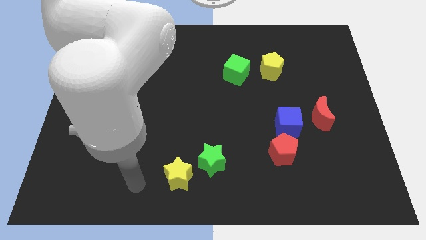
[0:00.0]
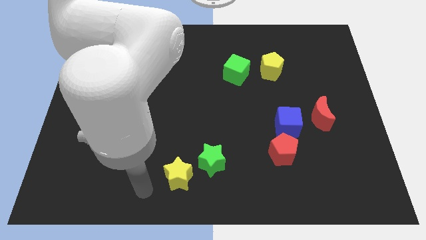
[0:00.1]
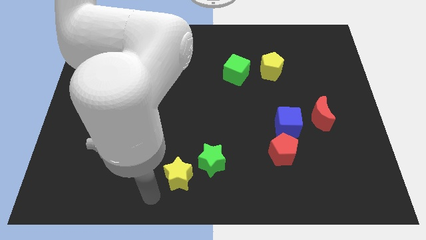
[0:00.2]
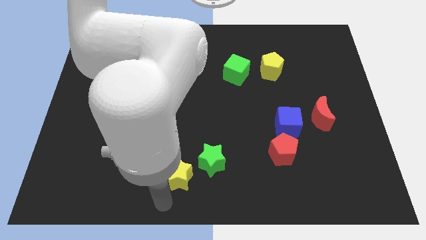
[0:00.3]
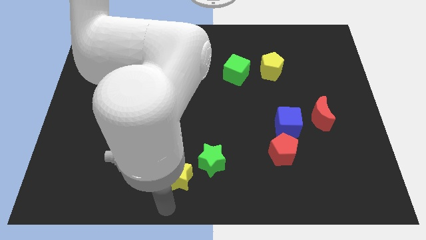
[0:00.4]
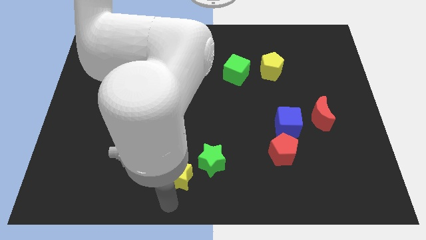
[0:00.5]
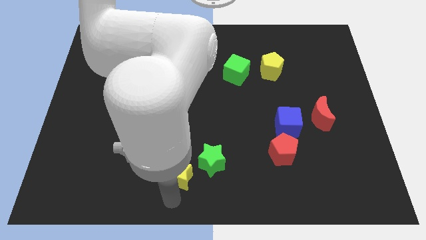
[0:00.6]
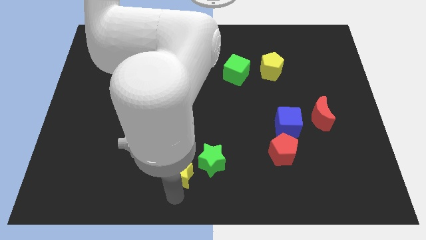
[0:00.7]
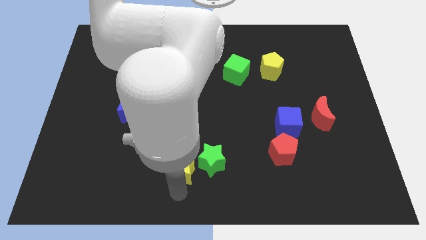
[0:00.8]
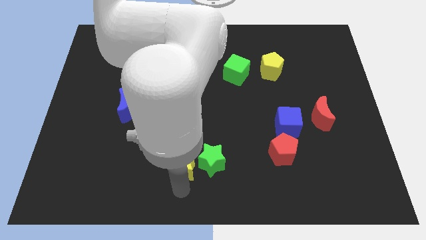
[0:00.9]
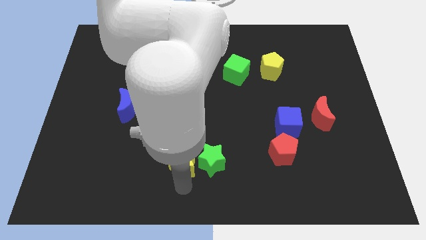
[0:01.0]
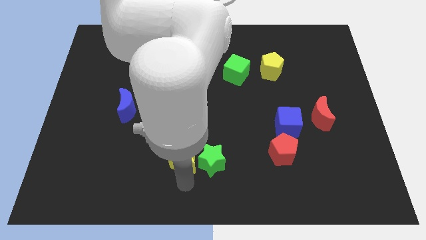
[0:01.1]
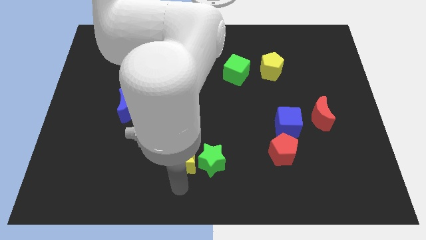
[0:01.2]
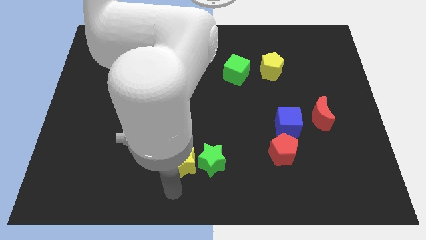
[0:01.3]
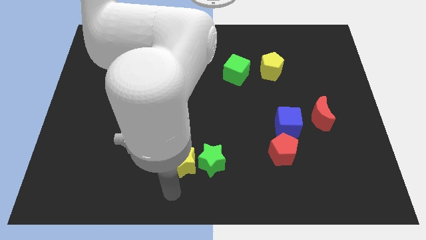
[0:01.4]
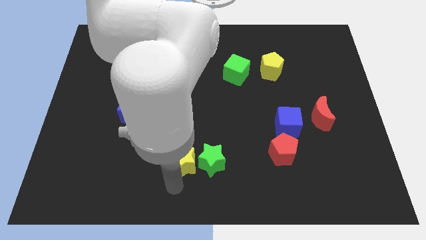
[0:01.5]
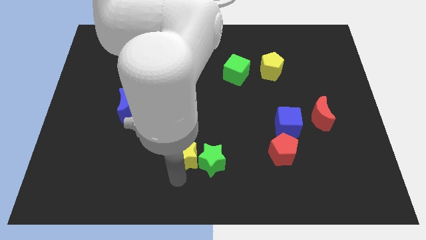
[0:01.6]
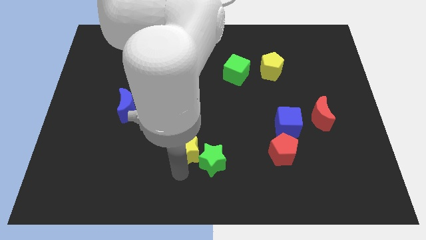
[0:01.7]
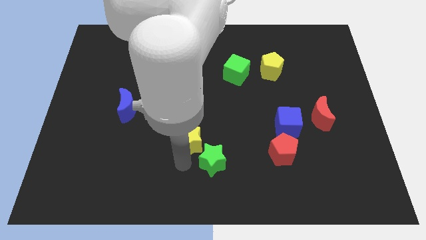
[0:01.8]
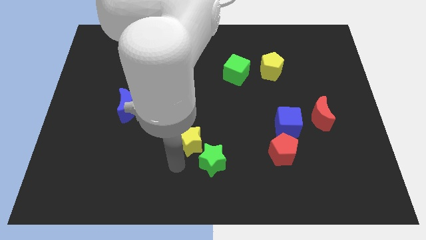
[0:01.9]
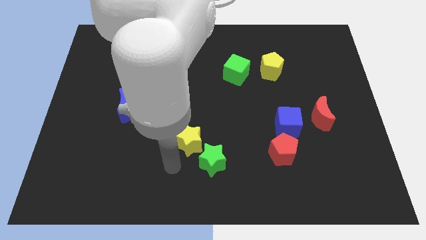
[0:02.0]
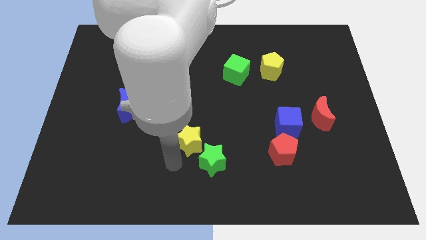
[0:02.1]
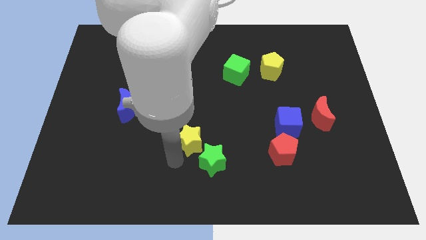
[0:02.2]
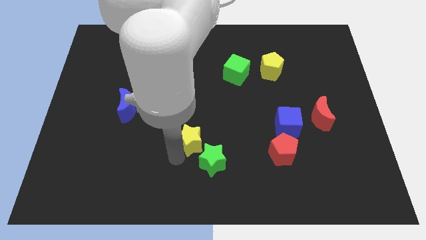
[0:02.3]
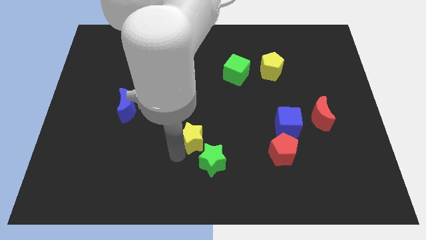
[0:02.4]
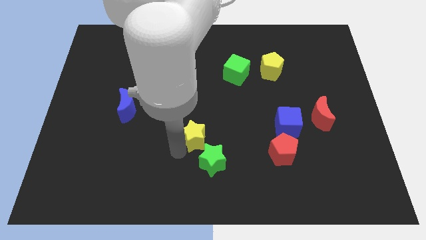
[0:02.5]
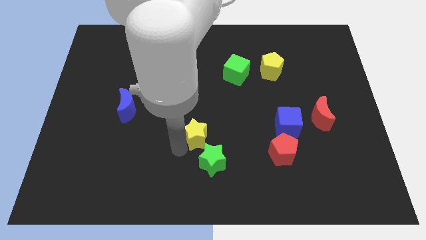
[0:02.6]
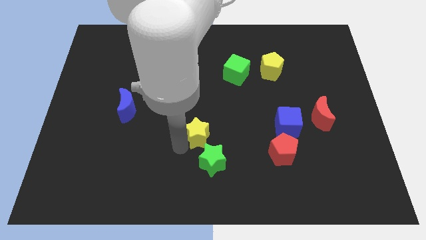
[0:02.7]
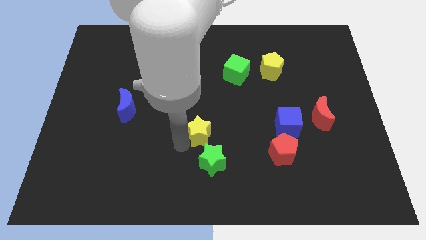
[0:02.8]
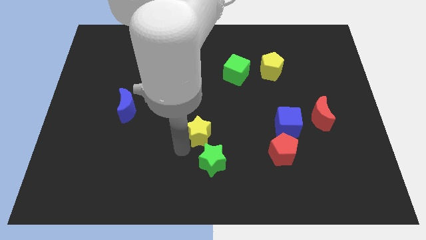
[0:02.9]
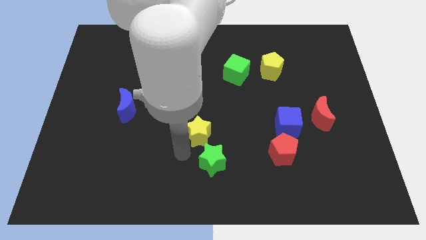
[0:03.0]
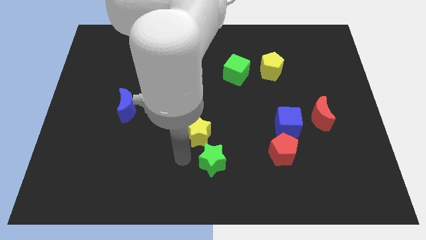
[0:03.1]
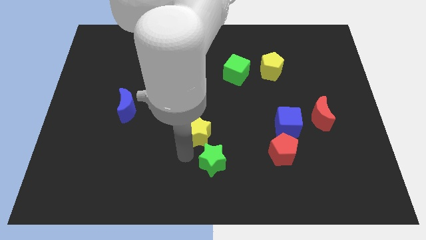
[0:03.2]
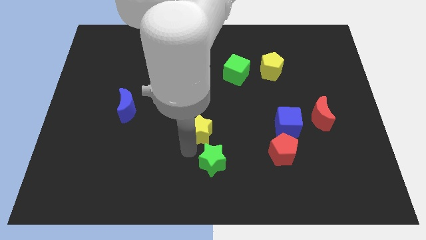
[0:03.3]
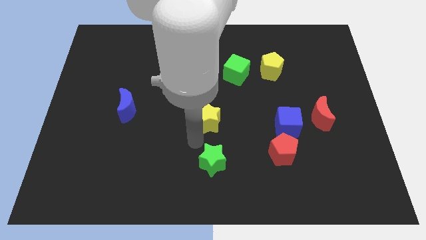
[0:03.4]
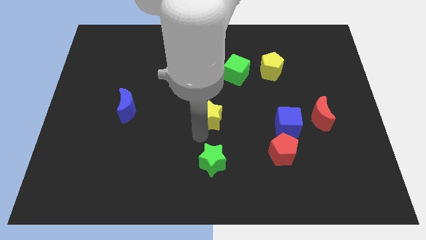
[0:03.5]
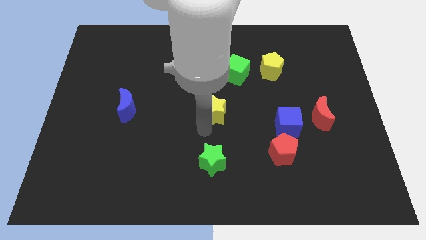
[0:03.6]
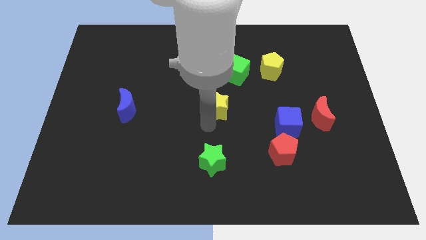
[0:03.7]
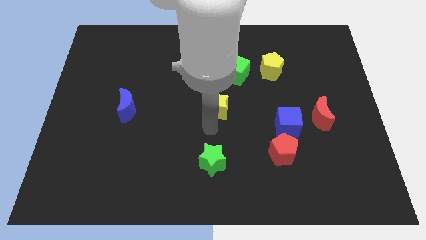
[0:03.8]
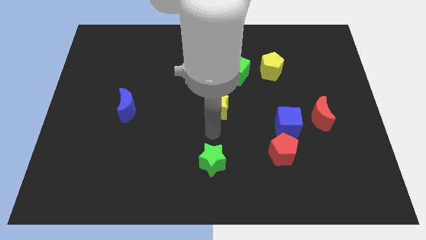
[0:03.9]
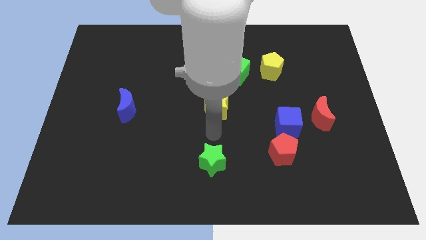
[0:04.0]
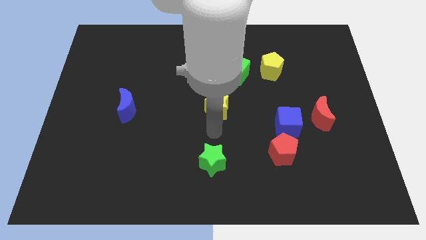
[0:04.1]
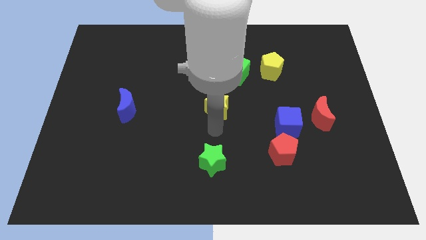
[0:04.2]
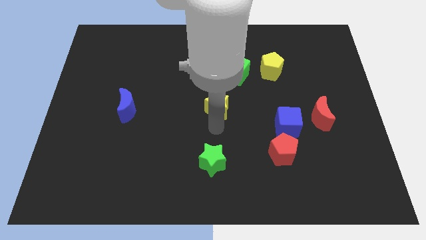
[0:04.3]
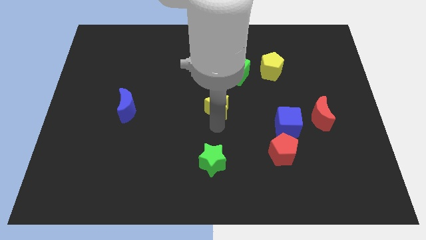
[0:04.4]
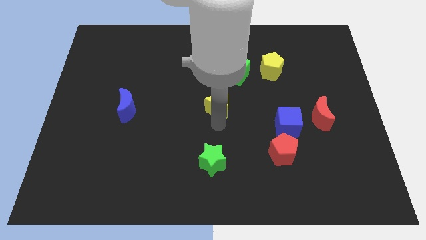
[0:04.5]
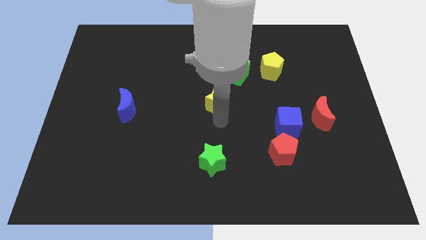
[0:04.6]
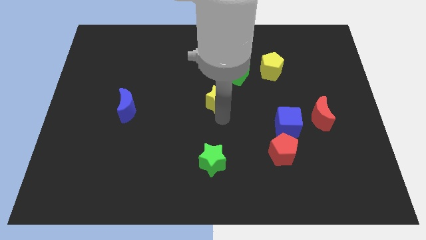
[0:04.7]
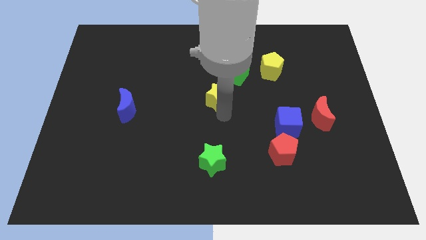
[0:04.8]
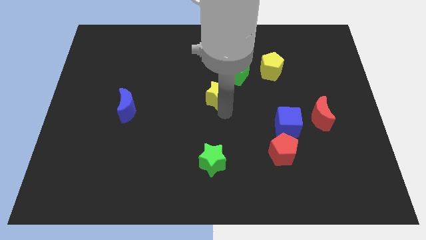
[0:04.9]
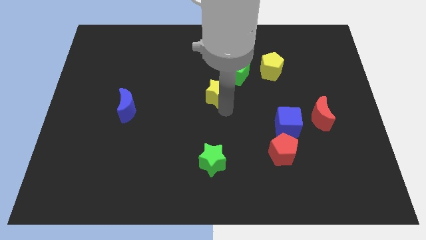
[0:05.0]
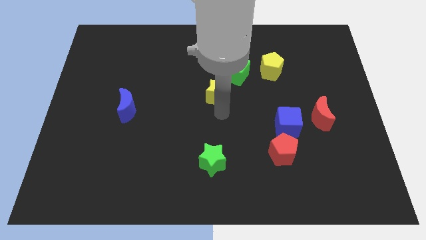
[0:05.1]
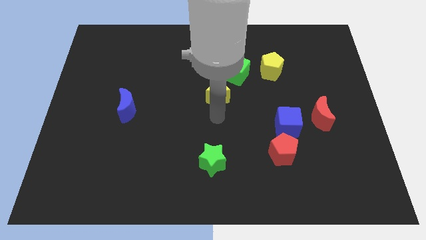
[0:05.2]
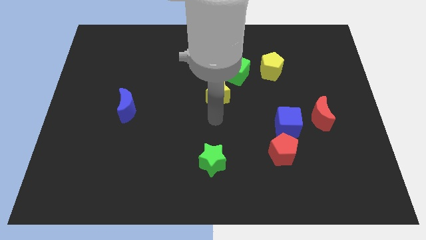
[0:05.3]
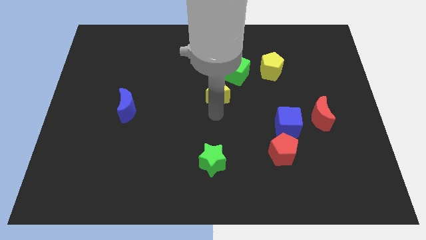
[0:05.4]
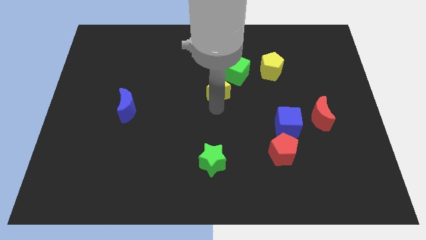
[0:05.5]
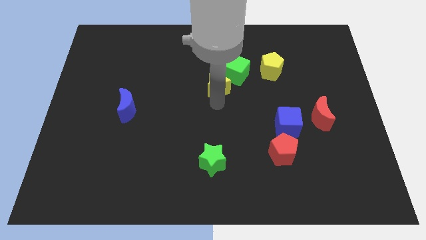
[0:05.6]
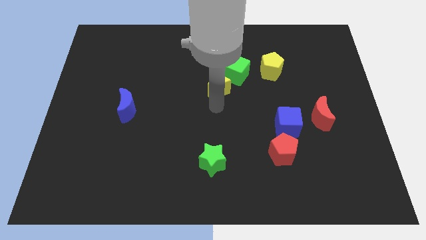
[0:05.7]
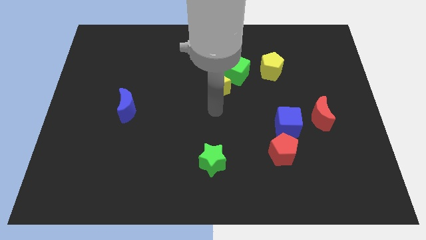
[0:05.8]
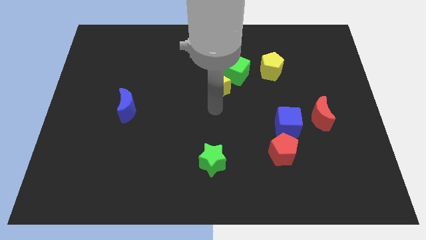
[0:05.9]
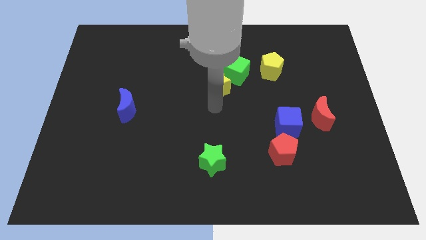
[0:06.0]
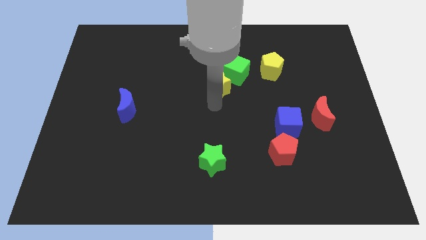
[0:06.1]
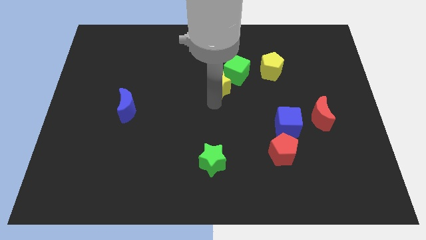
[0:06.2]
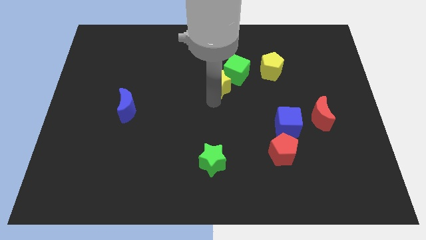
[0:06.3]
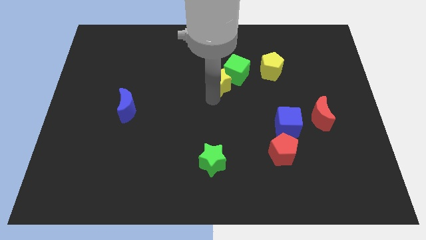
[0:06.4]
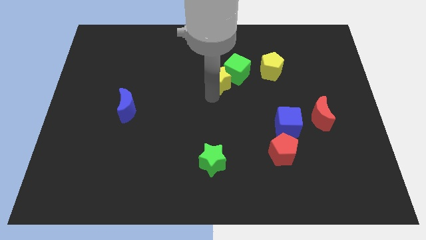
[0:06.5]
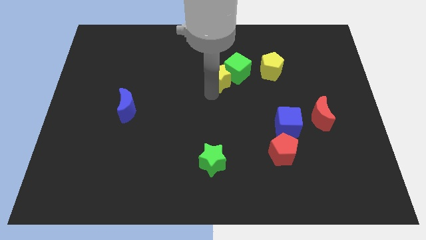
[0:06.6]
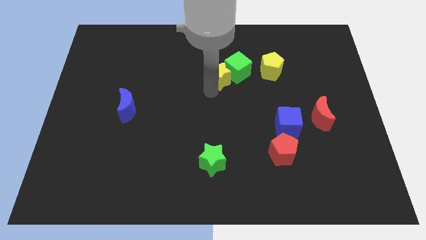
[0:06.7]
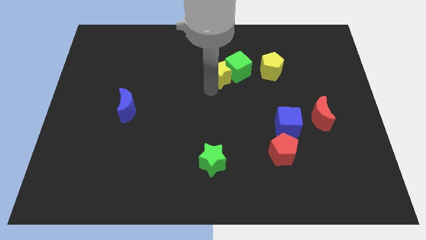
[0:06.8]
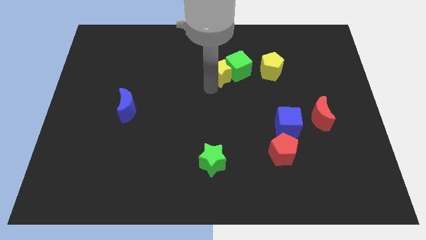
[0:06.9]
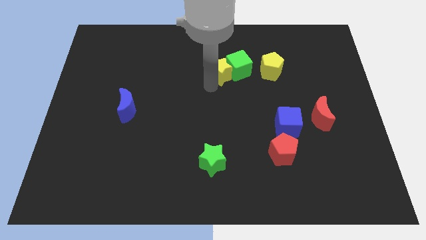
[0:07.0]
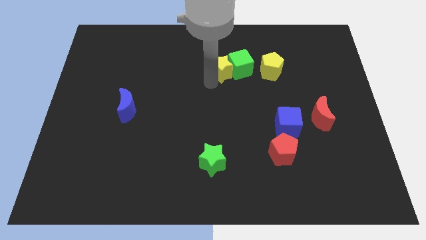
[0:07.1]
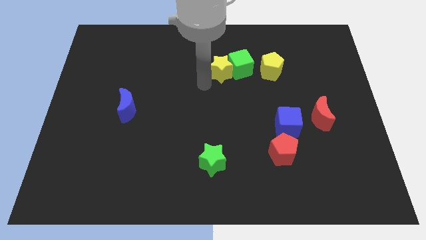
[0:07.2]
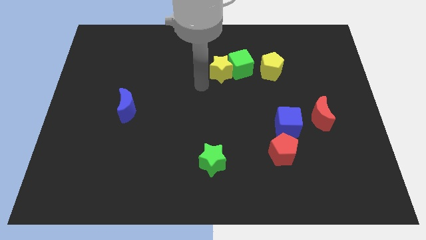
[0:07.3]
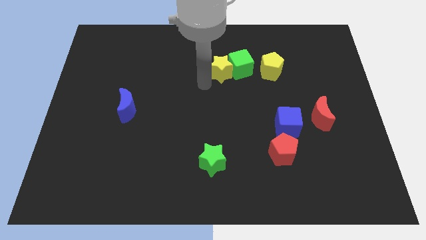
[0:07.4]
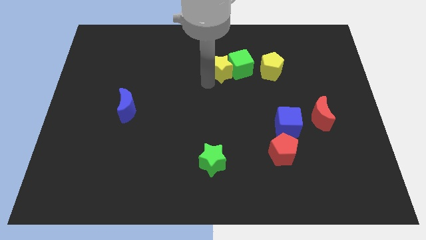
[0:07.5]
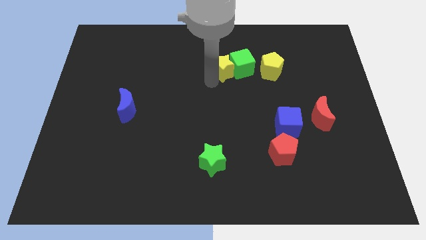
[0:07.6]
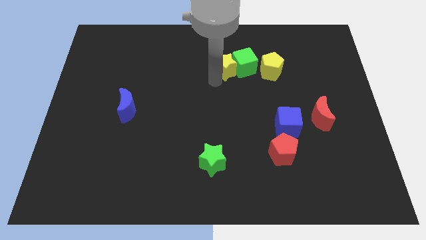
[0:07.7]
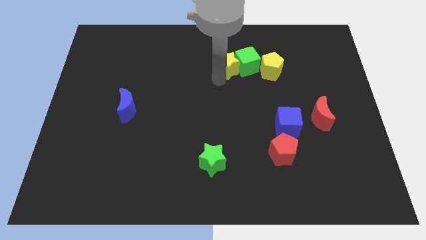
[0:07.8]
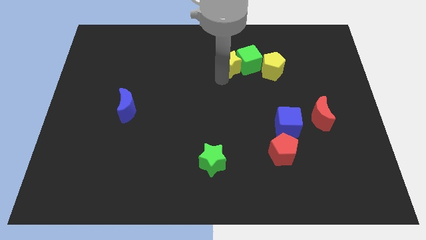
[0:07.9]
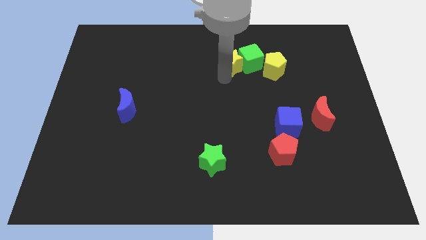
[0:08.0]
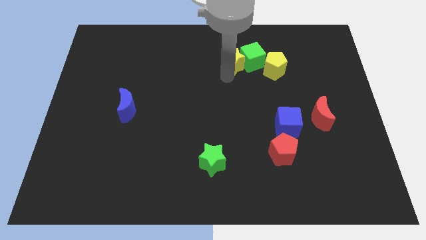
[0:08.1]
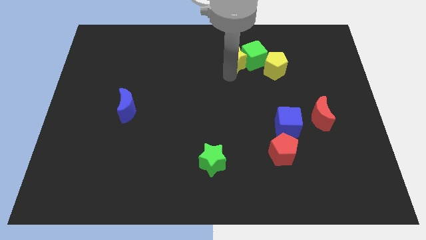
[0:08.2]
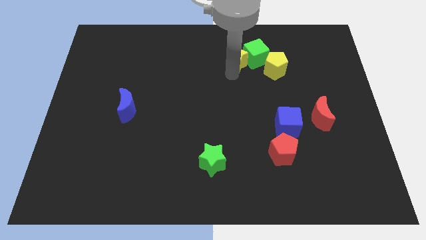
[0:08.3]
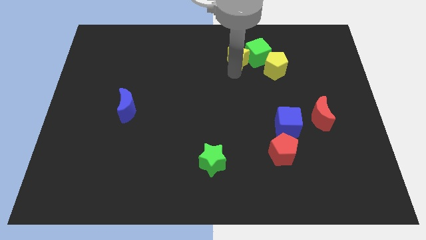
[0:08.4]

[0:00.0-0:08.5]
slide the yellow star to the top left side of the yellow pentagon
